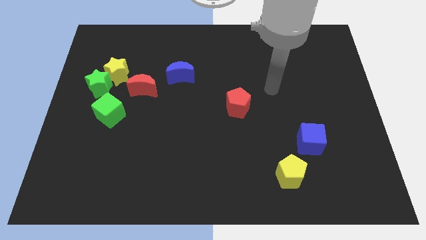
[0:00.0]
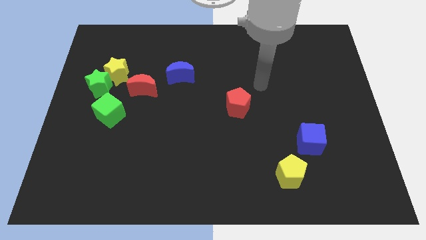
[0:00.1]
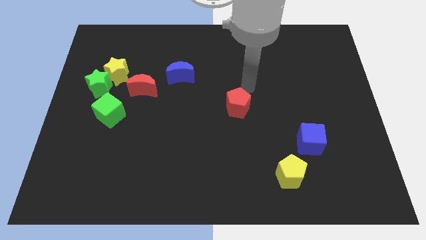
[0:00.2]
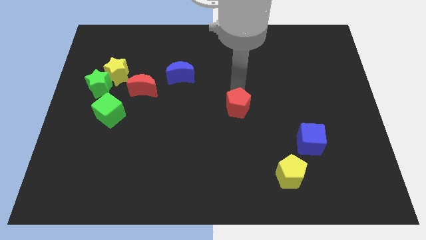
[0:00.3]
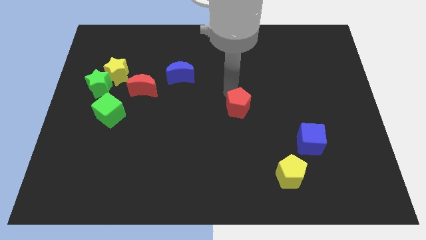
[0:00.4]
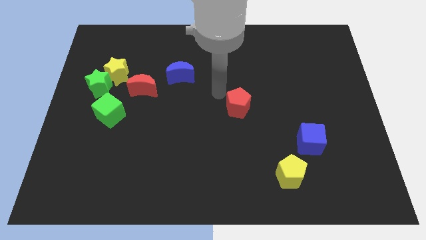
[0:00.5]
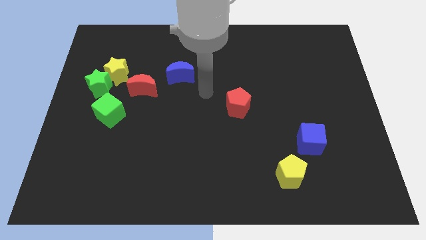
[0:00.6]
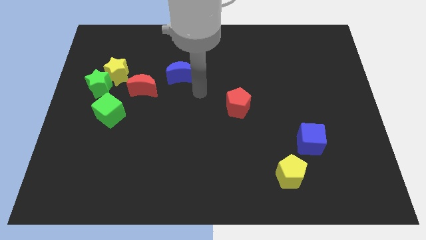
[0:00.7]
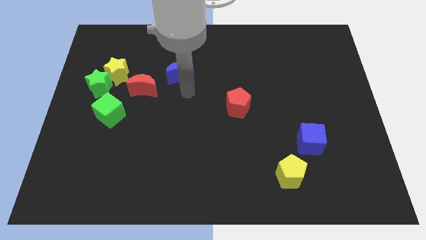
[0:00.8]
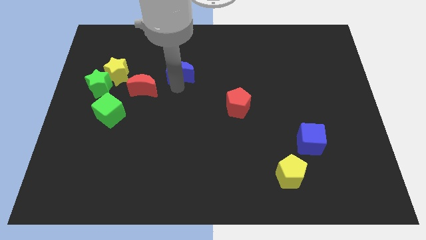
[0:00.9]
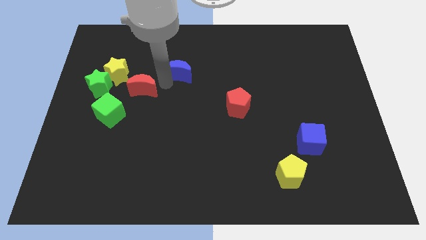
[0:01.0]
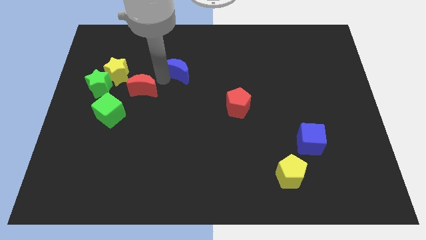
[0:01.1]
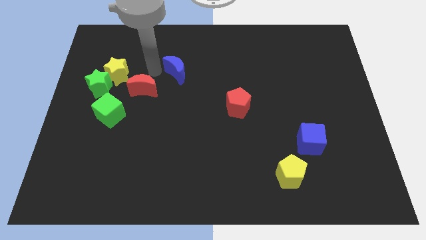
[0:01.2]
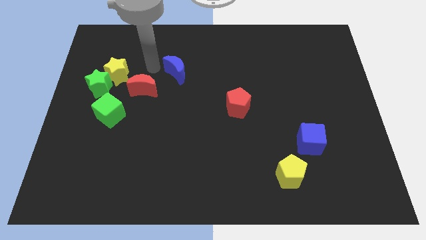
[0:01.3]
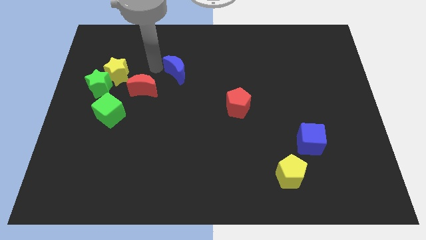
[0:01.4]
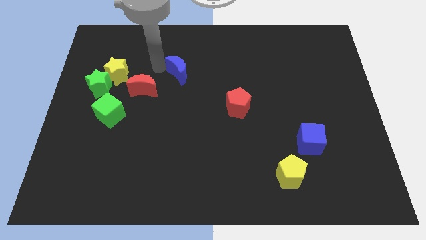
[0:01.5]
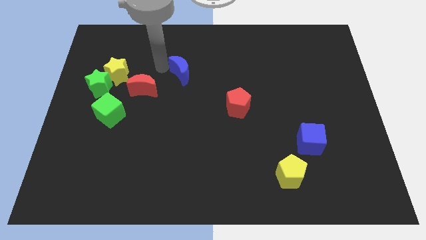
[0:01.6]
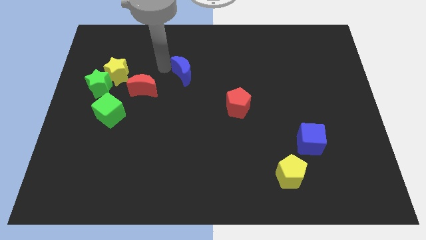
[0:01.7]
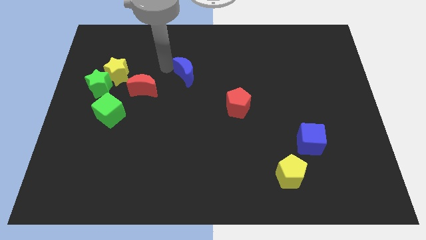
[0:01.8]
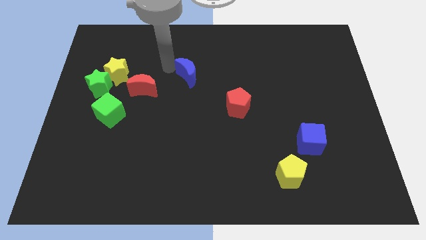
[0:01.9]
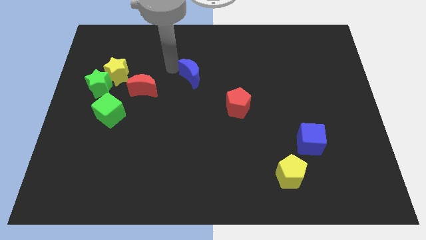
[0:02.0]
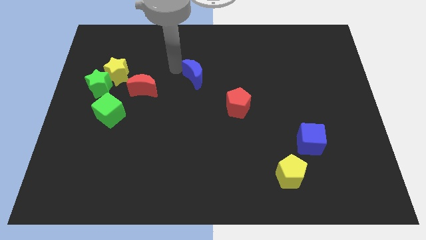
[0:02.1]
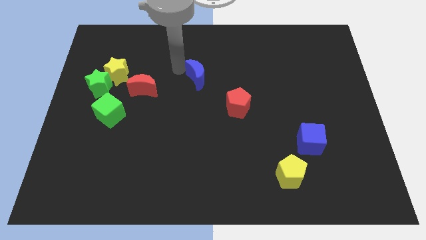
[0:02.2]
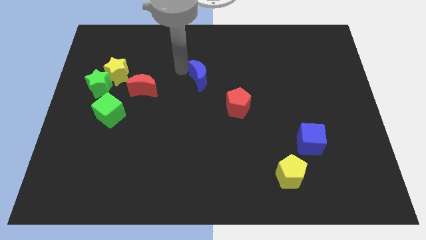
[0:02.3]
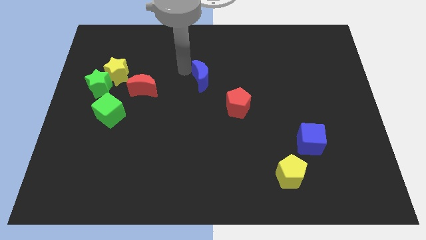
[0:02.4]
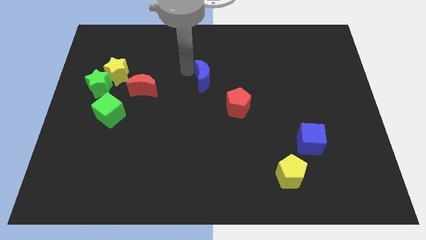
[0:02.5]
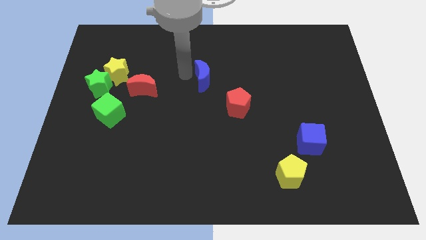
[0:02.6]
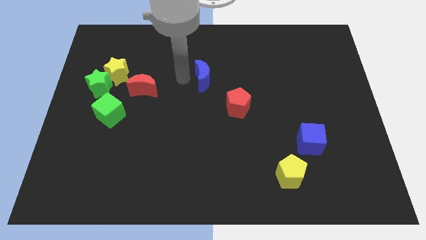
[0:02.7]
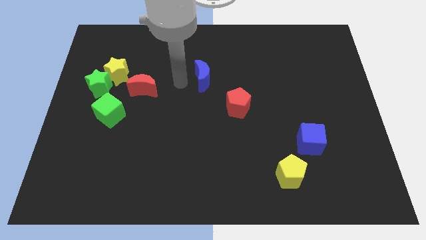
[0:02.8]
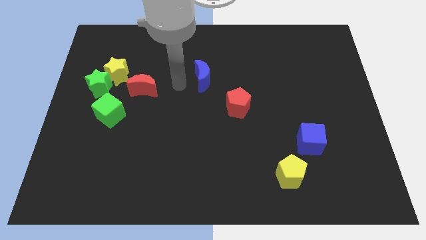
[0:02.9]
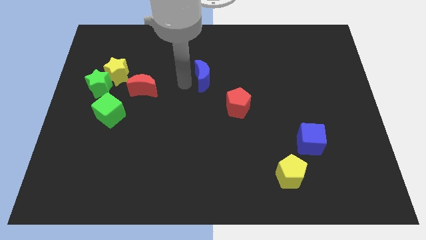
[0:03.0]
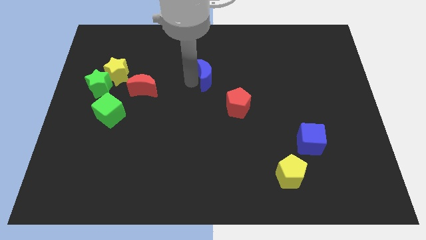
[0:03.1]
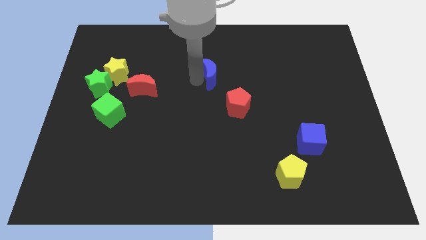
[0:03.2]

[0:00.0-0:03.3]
slightly push the blue moon right

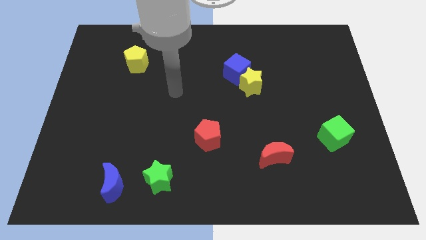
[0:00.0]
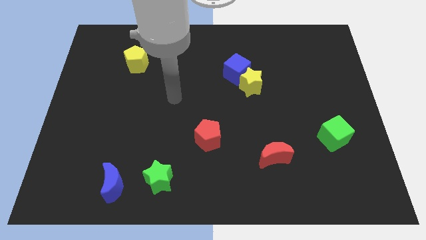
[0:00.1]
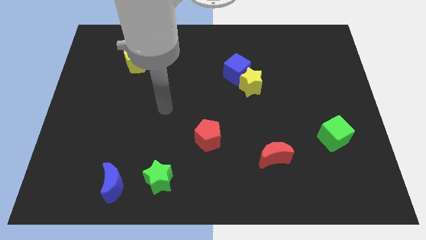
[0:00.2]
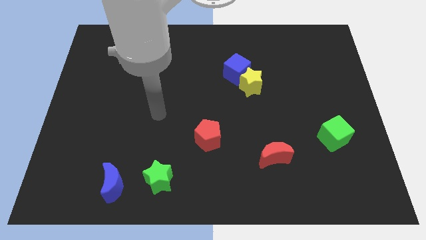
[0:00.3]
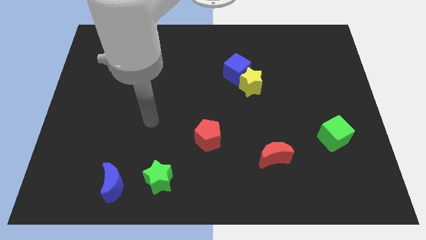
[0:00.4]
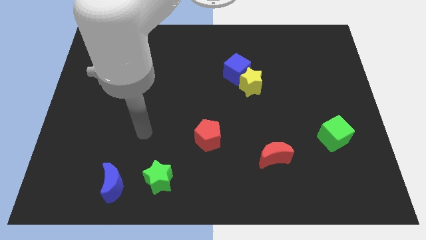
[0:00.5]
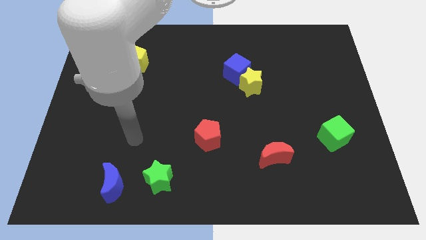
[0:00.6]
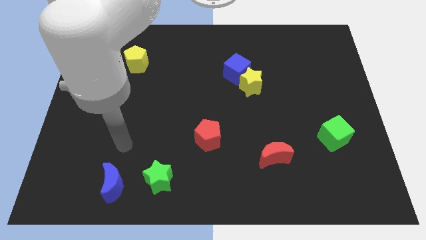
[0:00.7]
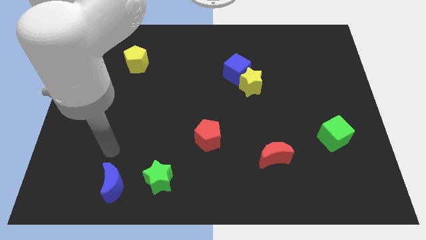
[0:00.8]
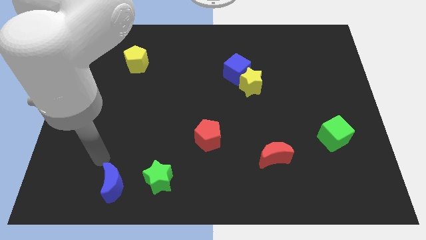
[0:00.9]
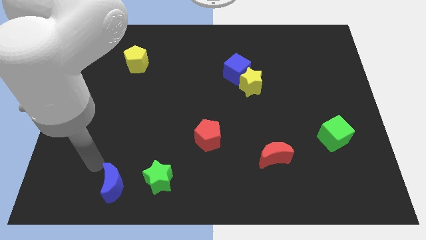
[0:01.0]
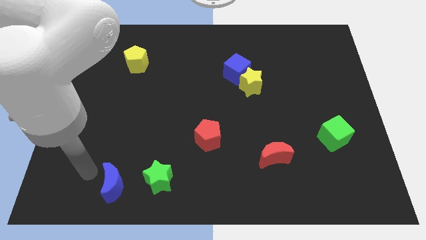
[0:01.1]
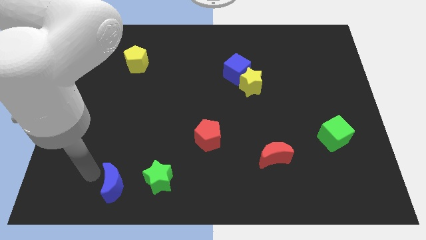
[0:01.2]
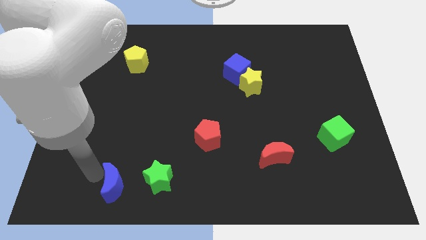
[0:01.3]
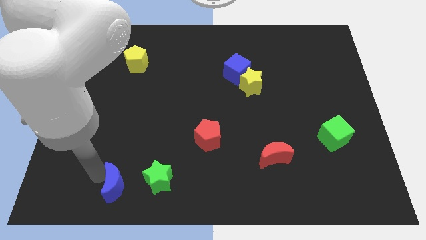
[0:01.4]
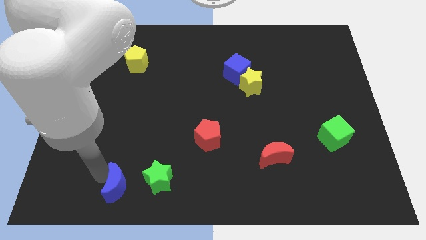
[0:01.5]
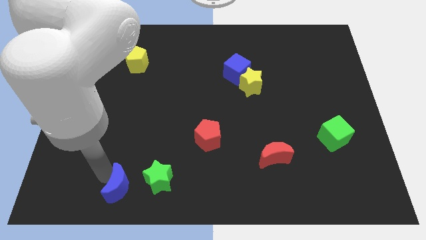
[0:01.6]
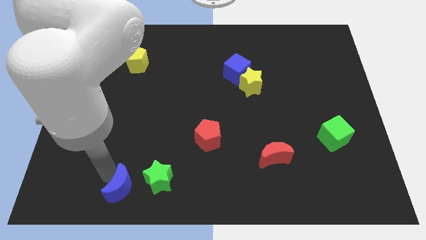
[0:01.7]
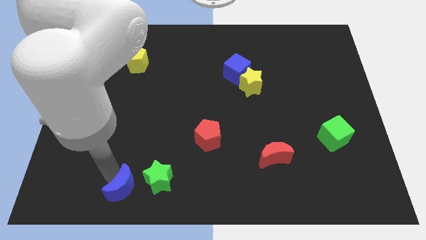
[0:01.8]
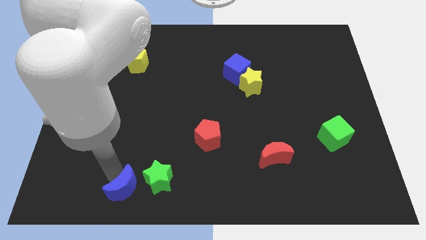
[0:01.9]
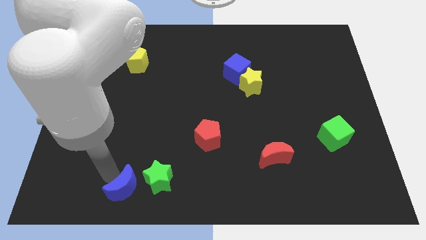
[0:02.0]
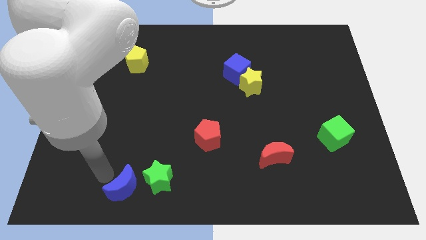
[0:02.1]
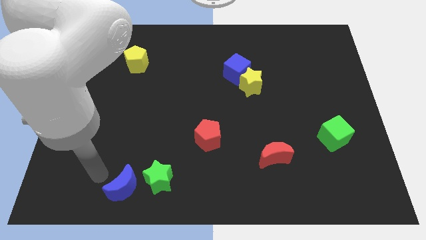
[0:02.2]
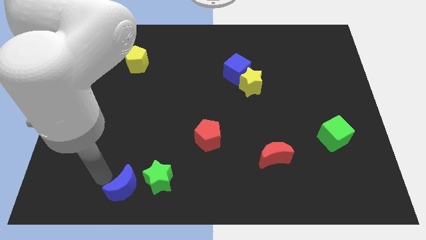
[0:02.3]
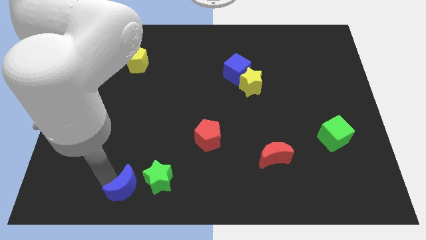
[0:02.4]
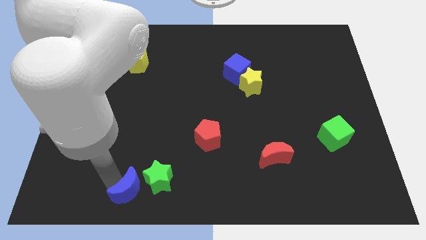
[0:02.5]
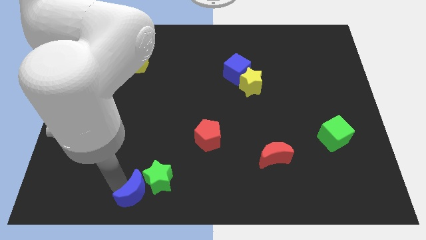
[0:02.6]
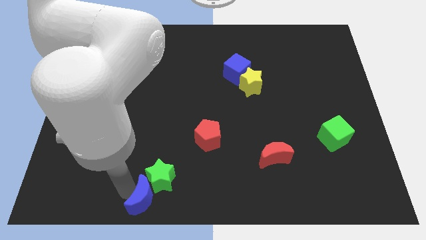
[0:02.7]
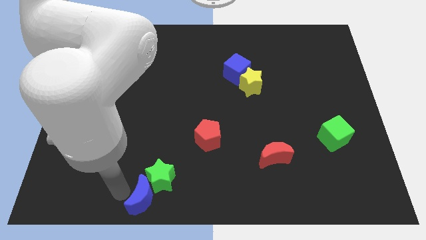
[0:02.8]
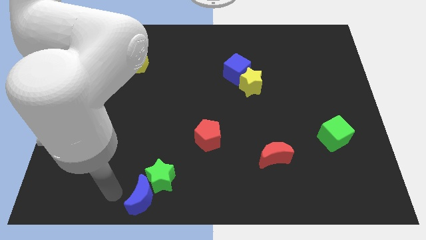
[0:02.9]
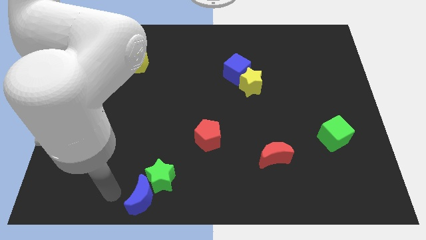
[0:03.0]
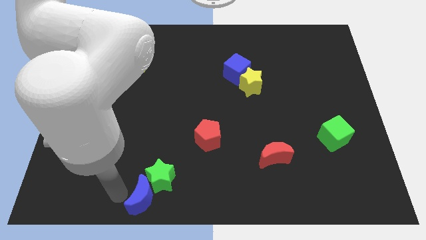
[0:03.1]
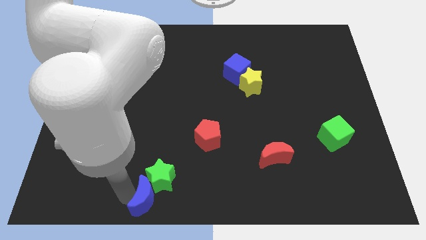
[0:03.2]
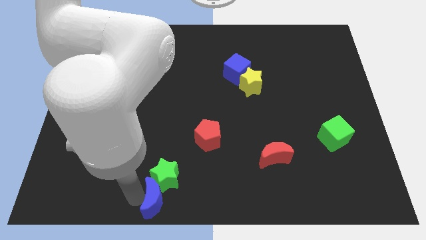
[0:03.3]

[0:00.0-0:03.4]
push the blue moon to the right somewhat

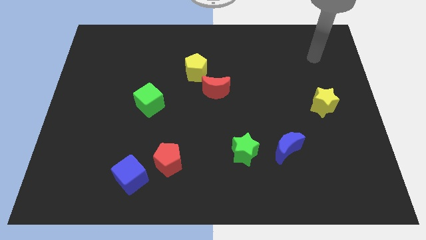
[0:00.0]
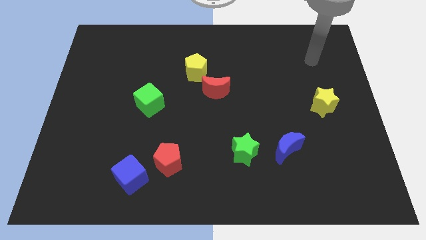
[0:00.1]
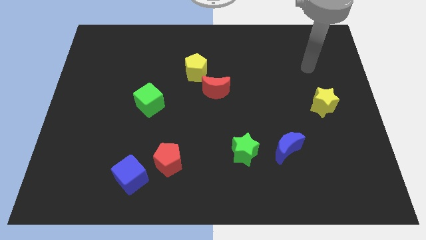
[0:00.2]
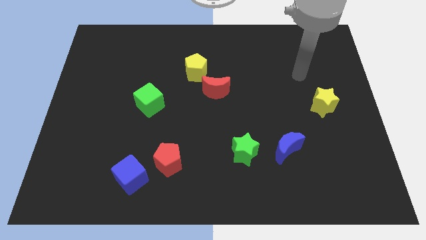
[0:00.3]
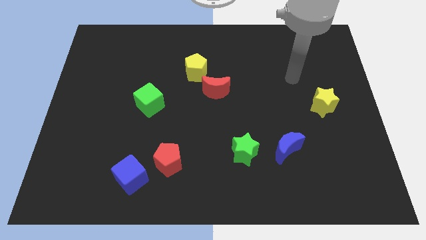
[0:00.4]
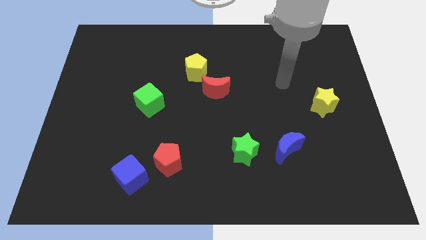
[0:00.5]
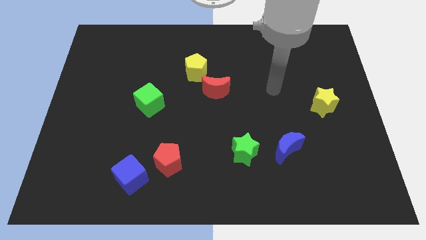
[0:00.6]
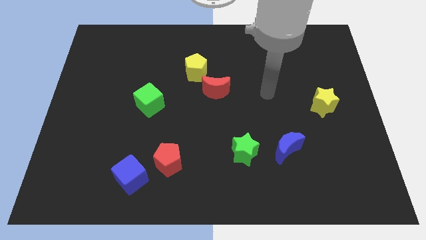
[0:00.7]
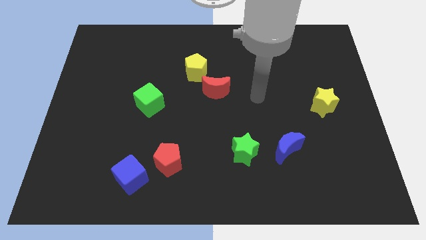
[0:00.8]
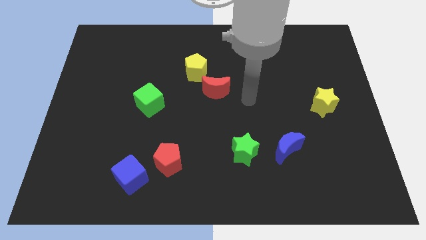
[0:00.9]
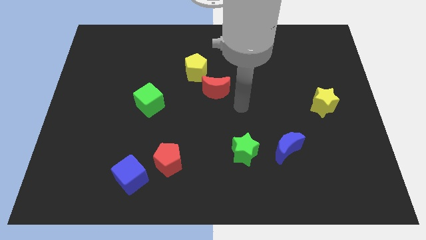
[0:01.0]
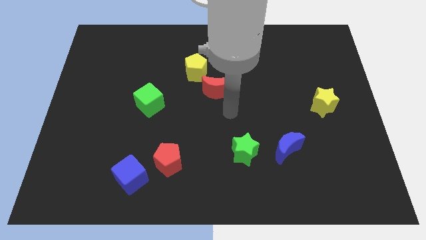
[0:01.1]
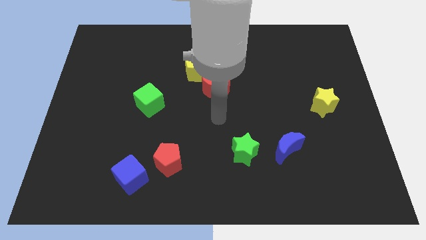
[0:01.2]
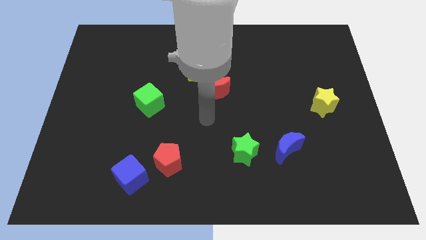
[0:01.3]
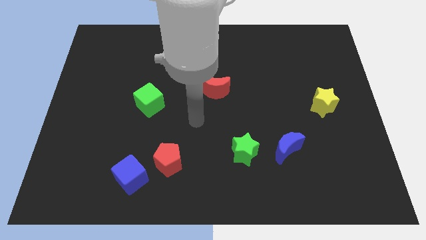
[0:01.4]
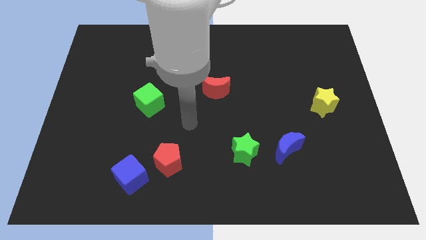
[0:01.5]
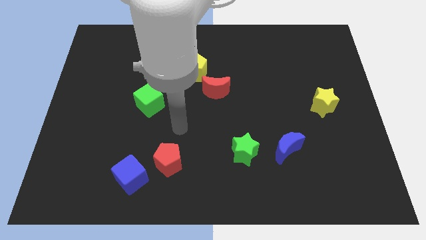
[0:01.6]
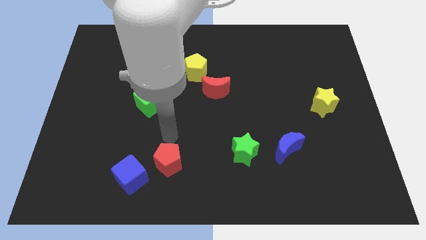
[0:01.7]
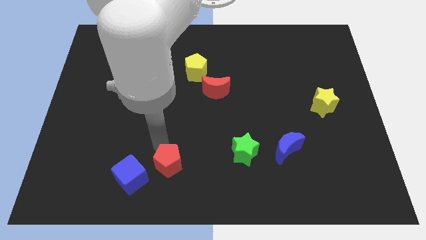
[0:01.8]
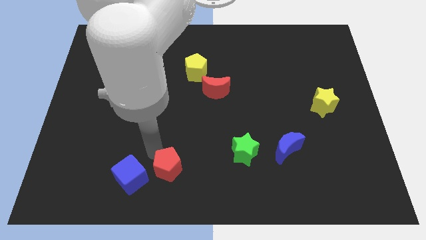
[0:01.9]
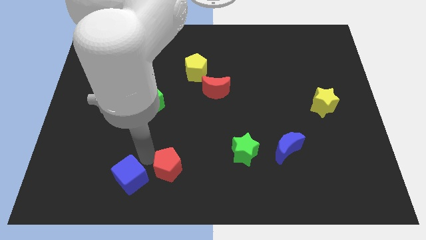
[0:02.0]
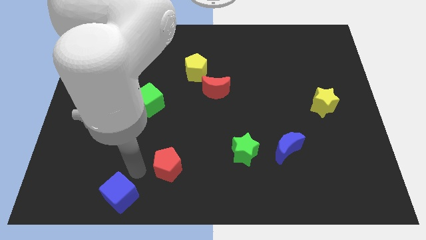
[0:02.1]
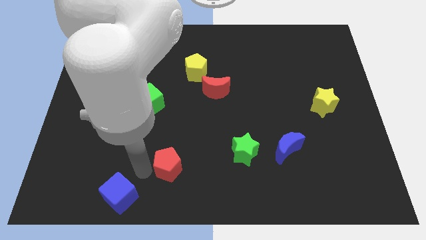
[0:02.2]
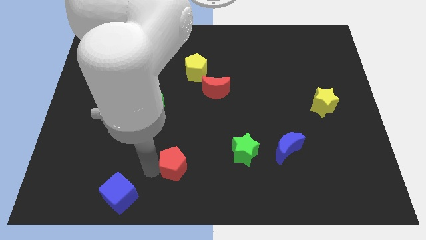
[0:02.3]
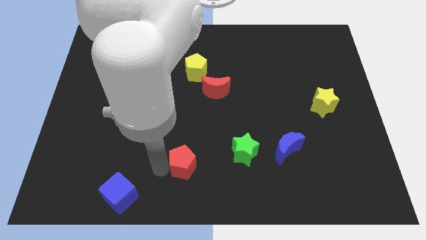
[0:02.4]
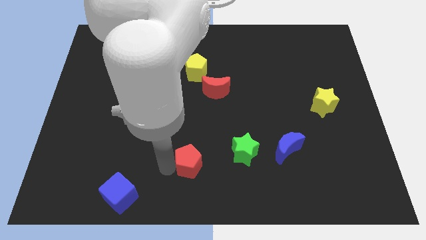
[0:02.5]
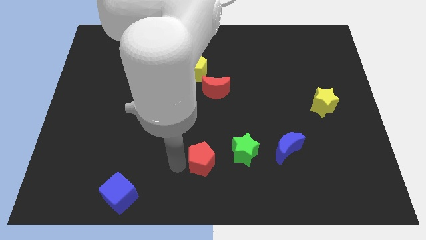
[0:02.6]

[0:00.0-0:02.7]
push the red pentagon to the right a little bit
